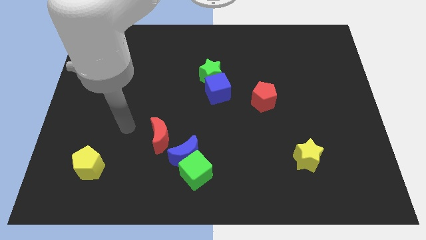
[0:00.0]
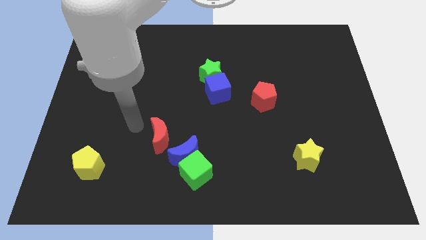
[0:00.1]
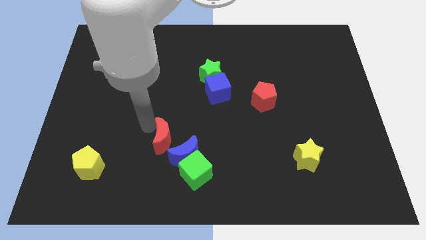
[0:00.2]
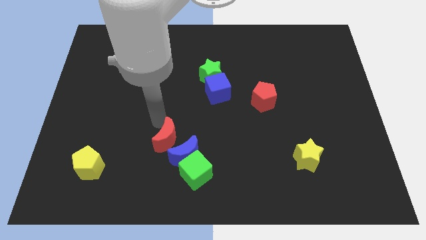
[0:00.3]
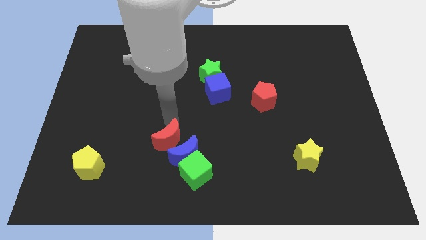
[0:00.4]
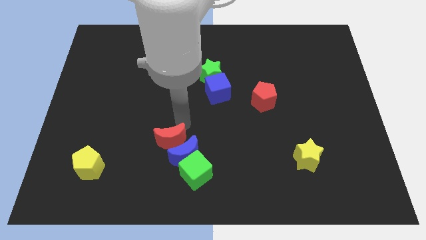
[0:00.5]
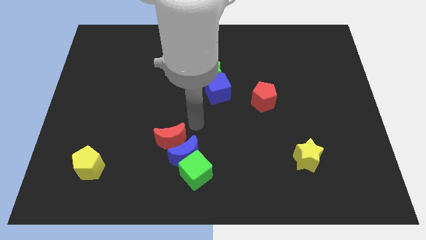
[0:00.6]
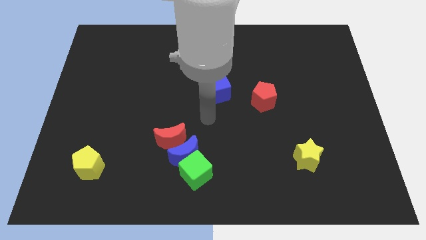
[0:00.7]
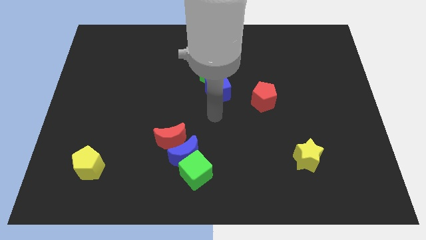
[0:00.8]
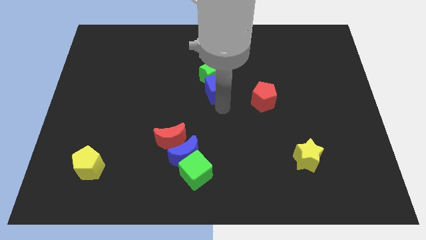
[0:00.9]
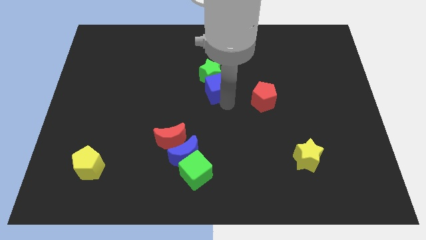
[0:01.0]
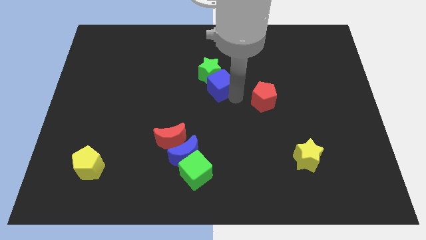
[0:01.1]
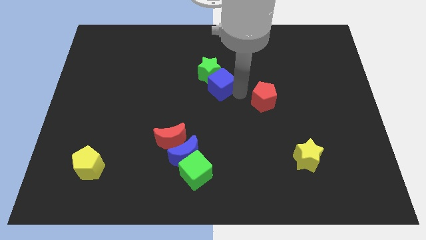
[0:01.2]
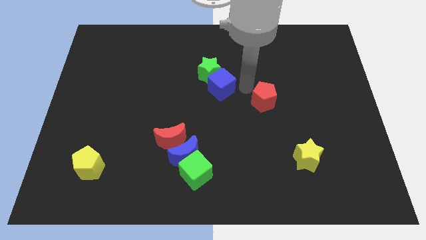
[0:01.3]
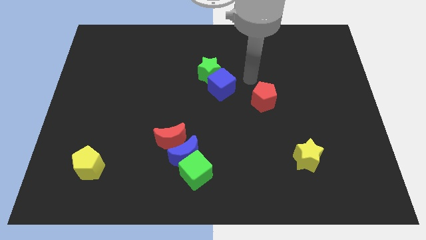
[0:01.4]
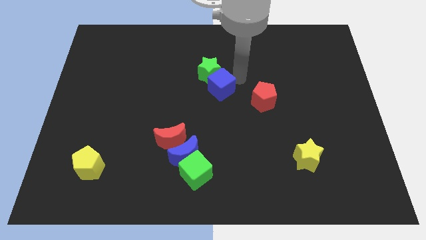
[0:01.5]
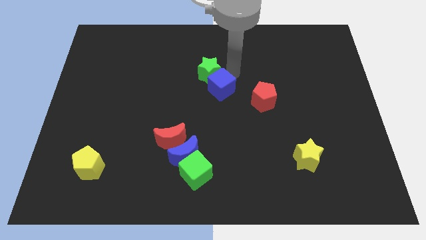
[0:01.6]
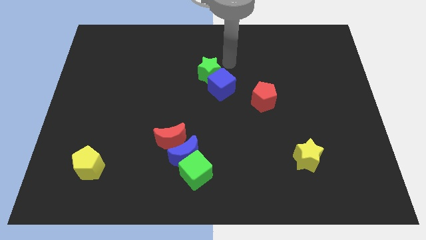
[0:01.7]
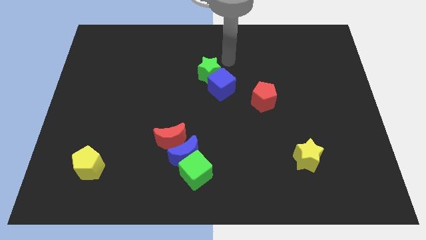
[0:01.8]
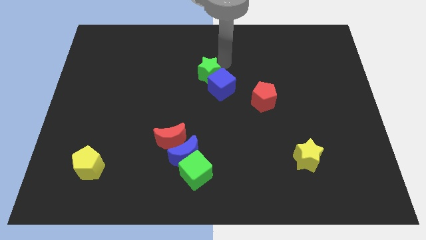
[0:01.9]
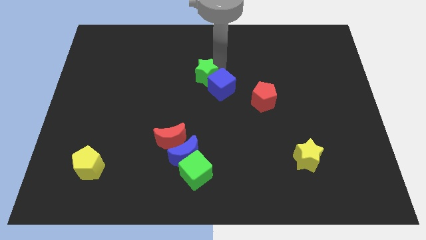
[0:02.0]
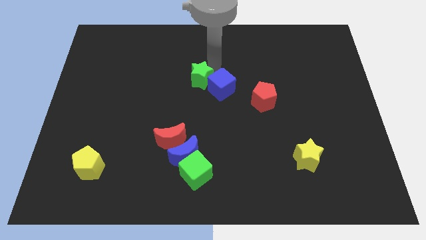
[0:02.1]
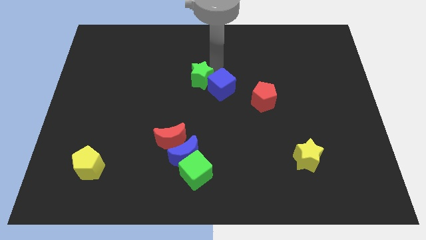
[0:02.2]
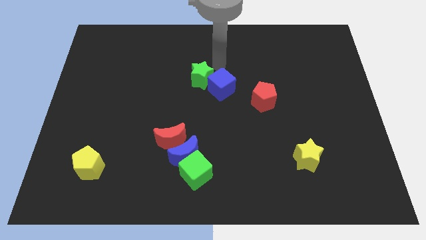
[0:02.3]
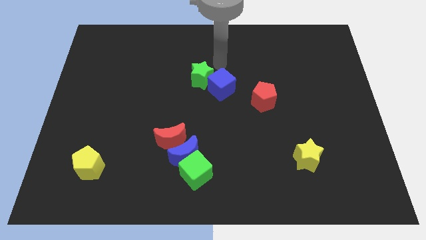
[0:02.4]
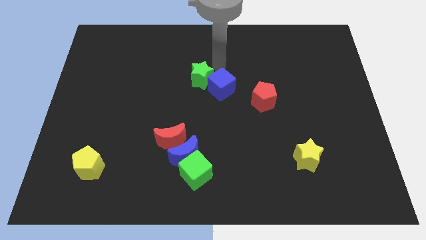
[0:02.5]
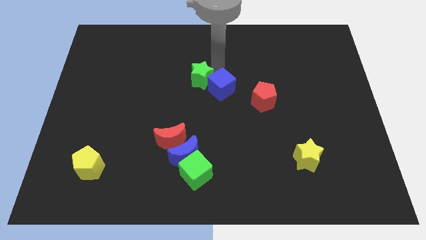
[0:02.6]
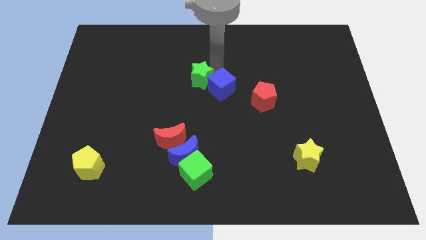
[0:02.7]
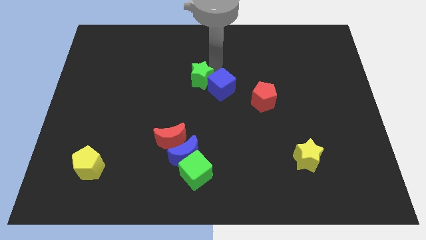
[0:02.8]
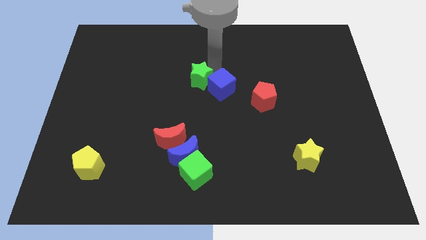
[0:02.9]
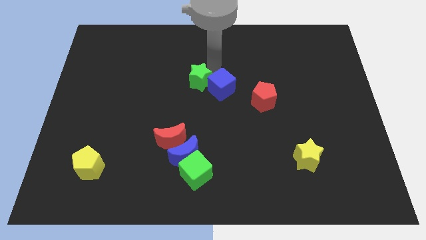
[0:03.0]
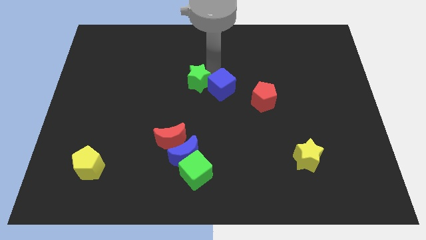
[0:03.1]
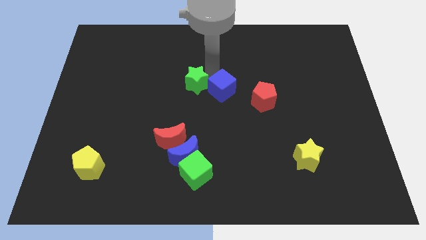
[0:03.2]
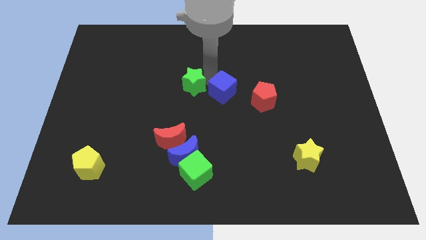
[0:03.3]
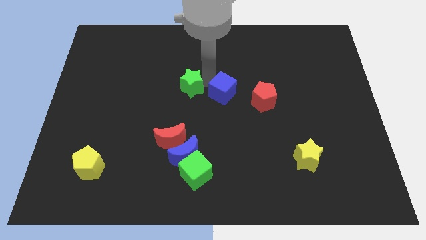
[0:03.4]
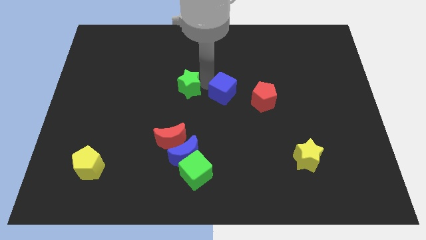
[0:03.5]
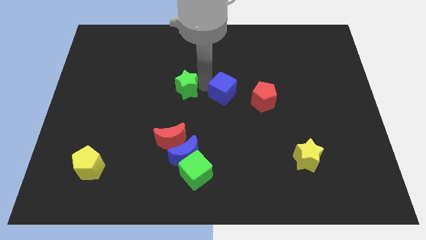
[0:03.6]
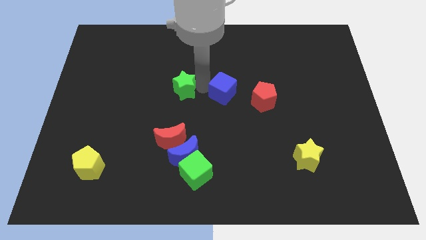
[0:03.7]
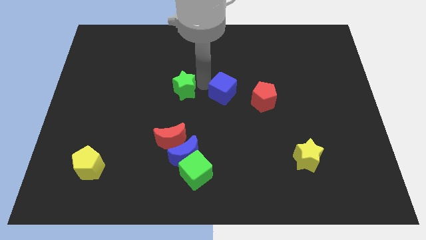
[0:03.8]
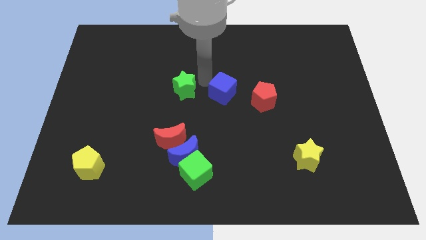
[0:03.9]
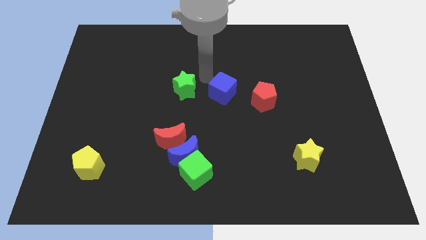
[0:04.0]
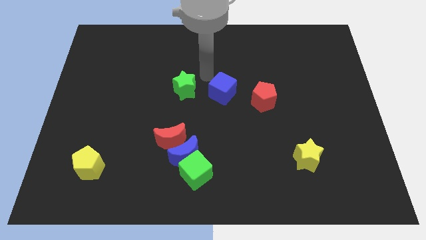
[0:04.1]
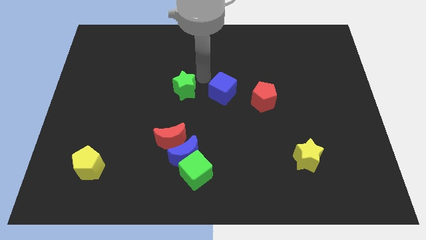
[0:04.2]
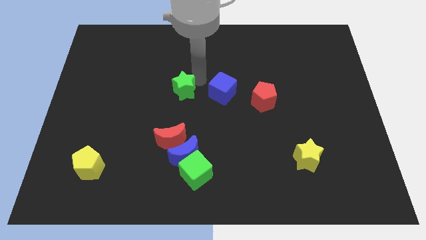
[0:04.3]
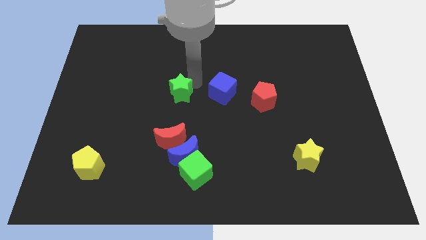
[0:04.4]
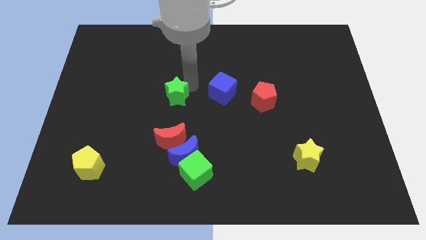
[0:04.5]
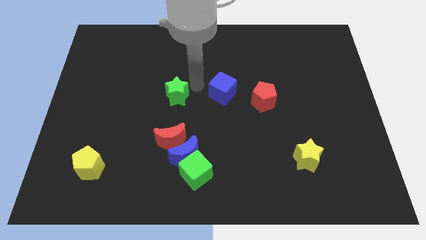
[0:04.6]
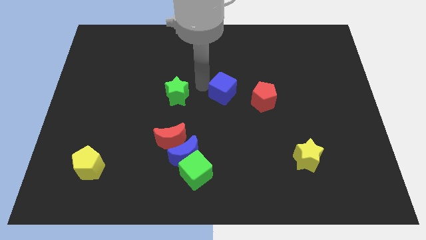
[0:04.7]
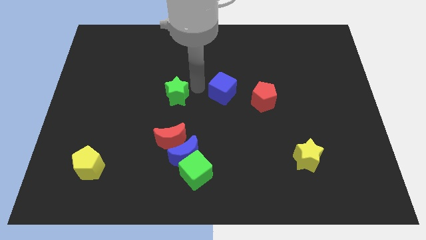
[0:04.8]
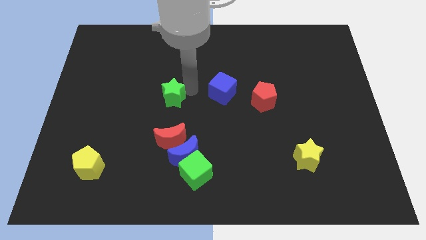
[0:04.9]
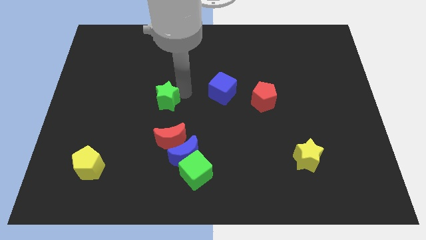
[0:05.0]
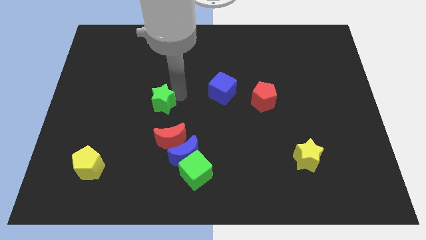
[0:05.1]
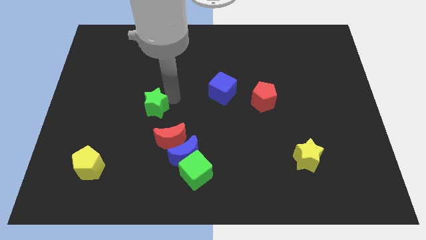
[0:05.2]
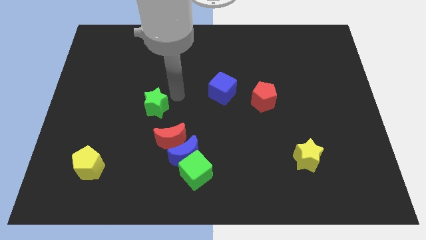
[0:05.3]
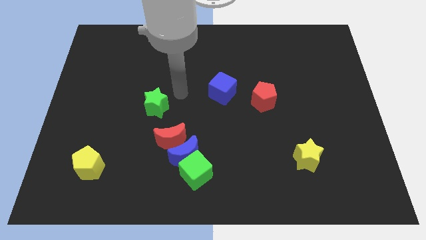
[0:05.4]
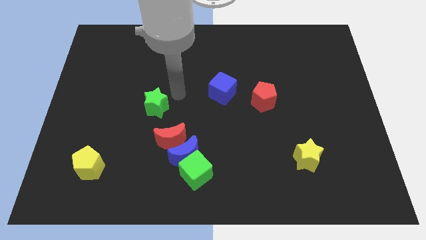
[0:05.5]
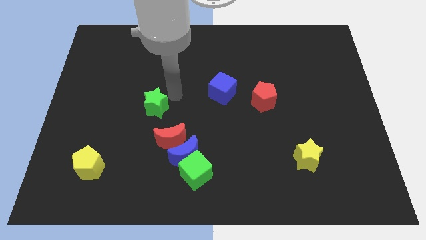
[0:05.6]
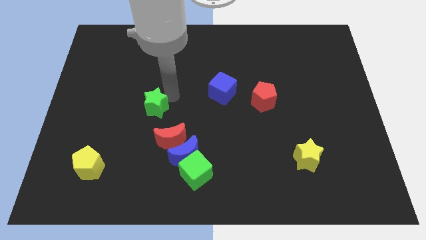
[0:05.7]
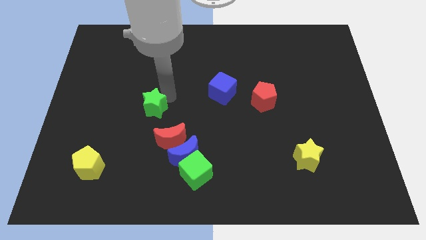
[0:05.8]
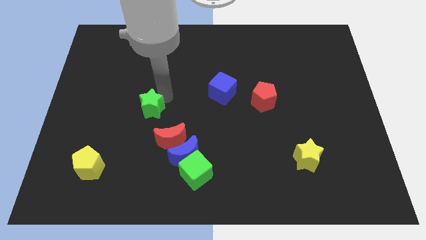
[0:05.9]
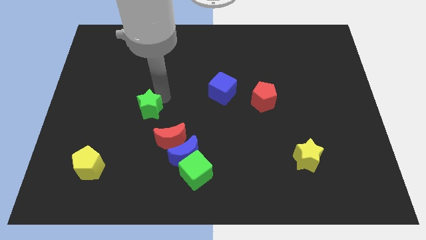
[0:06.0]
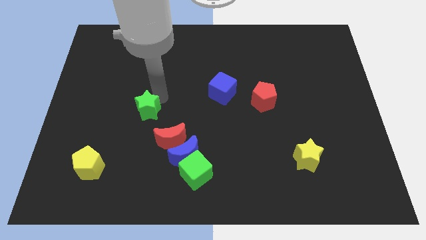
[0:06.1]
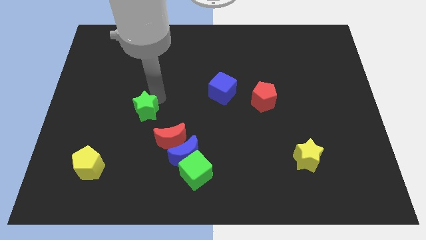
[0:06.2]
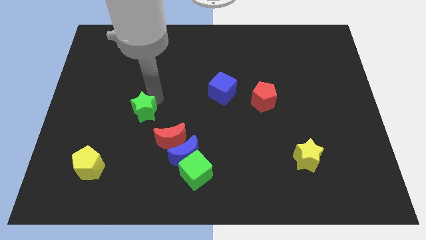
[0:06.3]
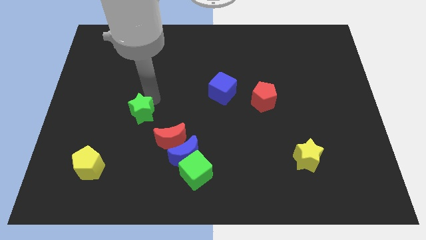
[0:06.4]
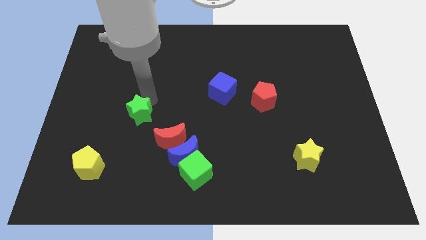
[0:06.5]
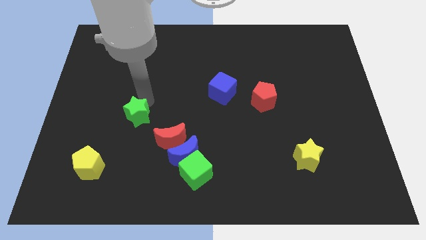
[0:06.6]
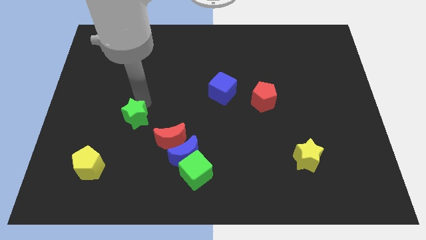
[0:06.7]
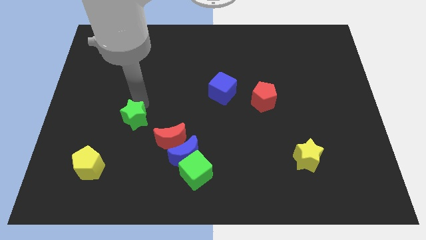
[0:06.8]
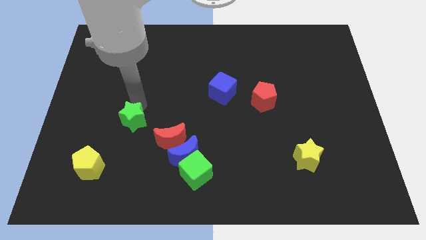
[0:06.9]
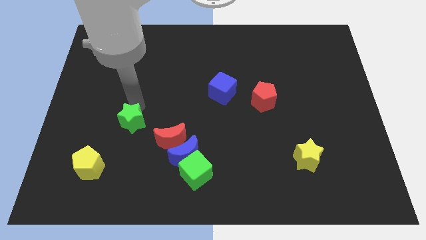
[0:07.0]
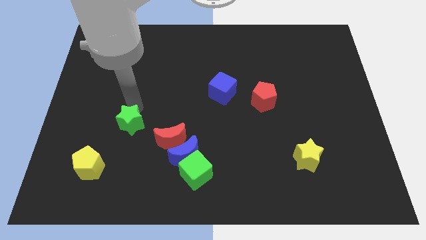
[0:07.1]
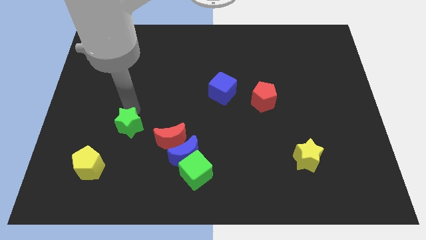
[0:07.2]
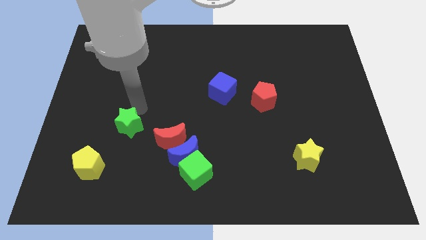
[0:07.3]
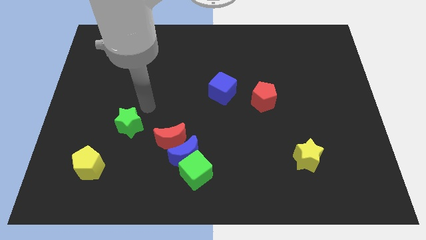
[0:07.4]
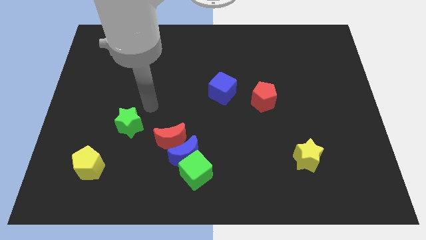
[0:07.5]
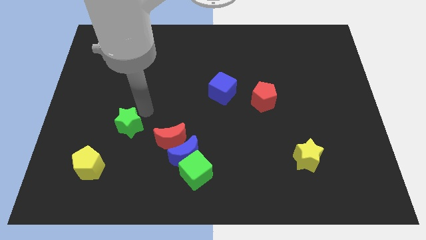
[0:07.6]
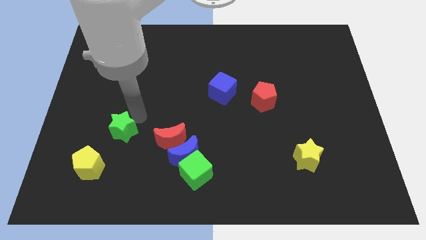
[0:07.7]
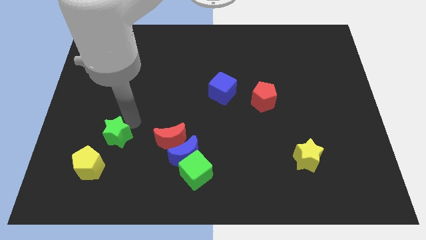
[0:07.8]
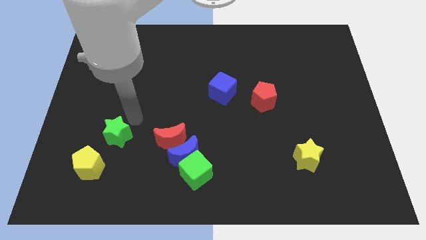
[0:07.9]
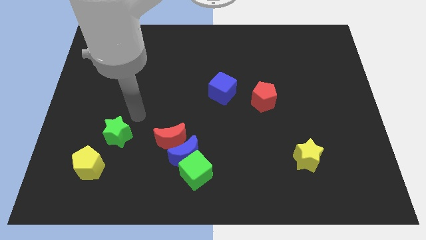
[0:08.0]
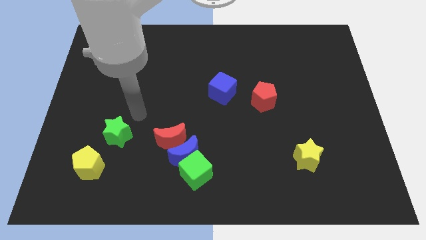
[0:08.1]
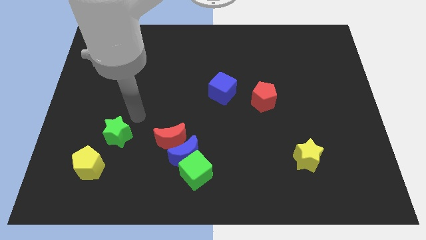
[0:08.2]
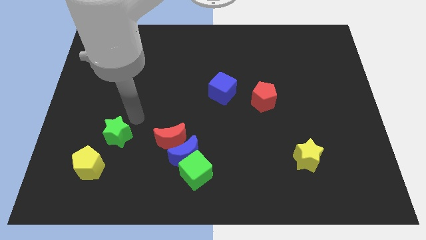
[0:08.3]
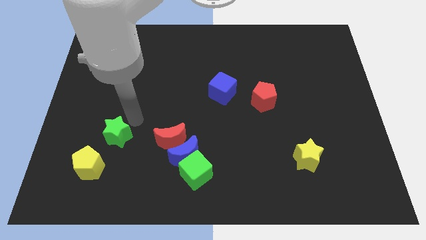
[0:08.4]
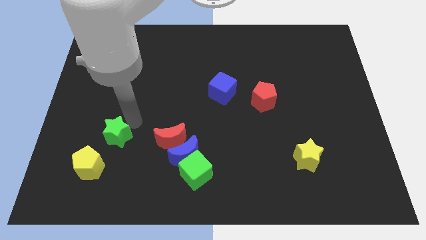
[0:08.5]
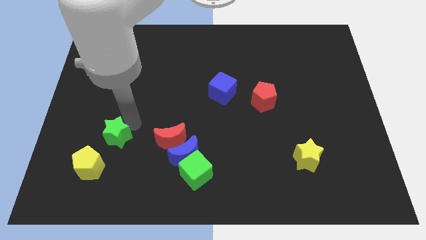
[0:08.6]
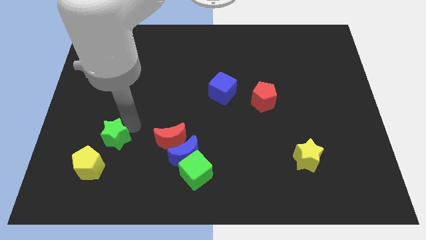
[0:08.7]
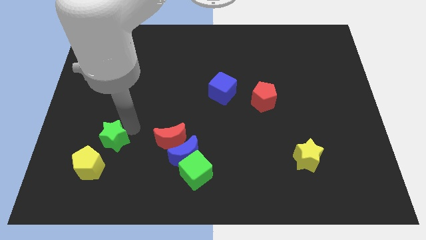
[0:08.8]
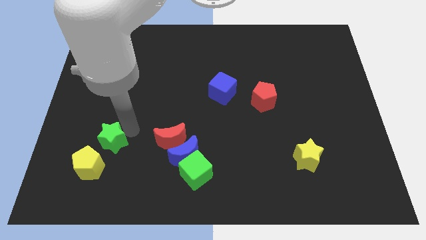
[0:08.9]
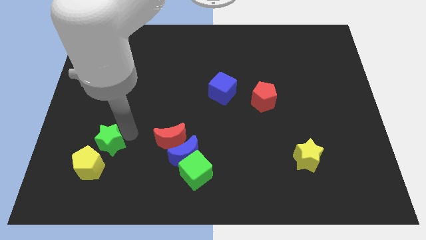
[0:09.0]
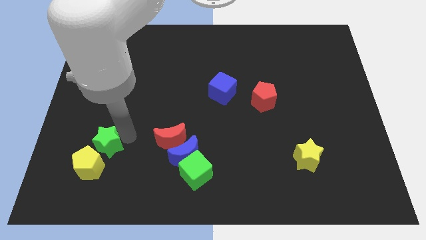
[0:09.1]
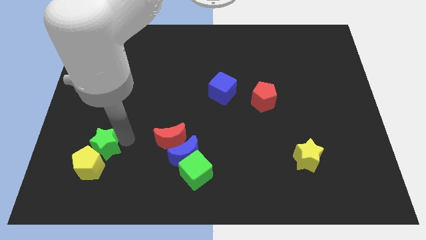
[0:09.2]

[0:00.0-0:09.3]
slide the green star towards the yellow pentagon
